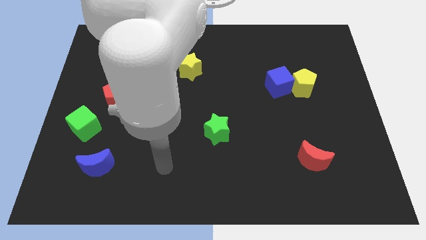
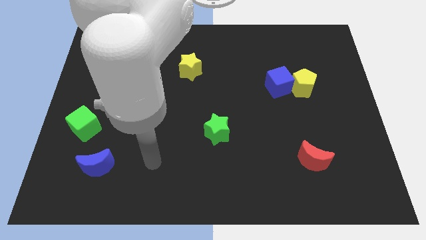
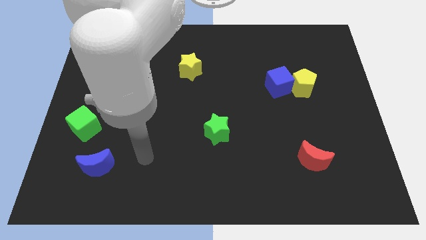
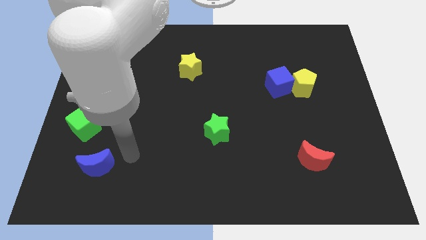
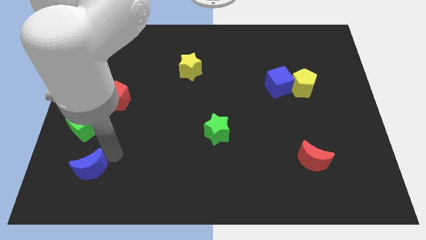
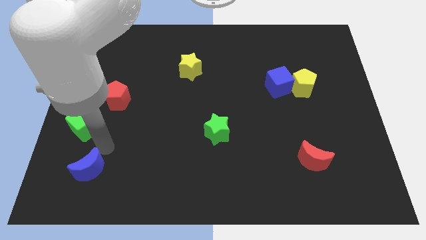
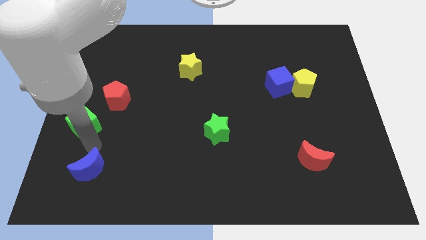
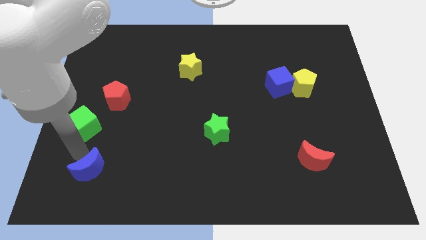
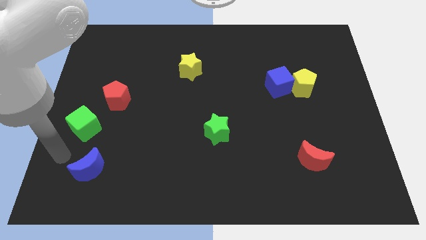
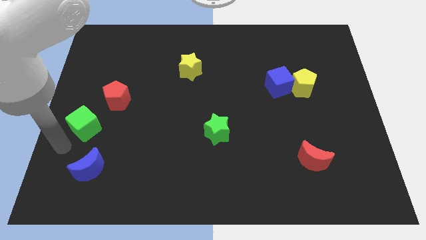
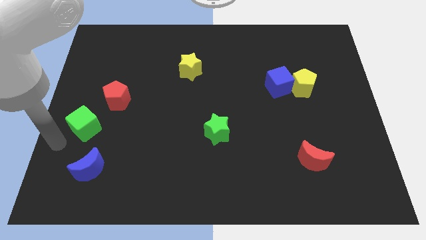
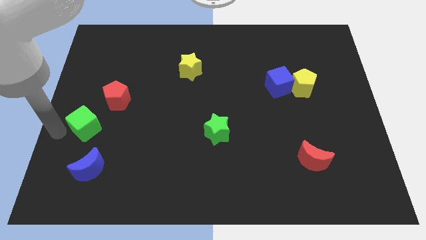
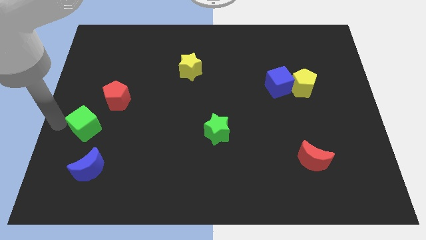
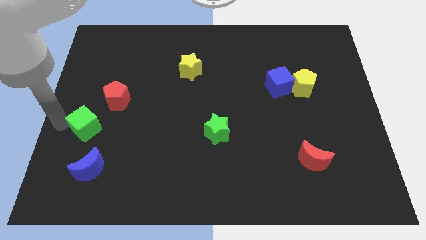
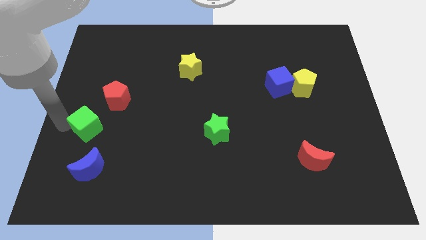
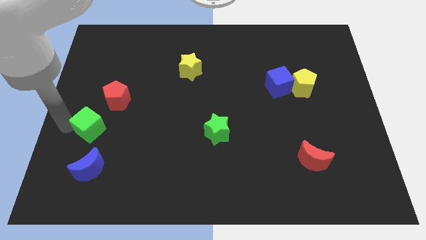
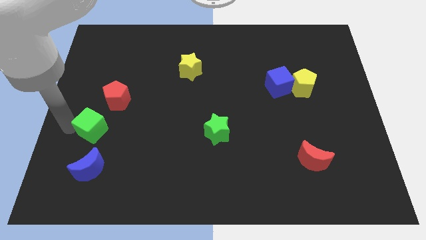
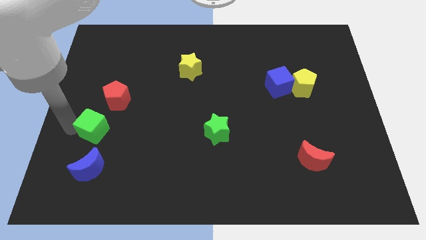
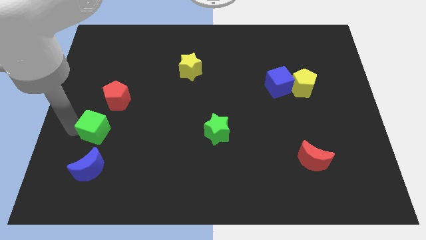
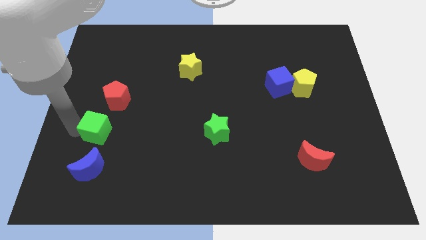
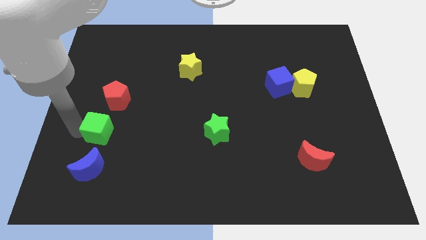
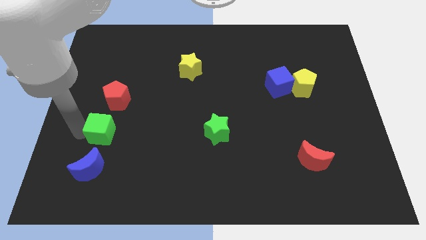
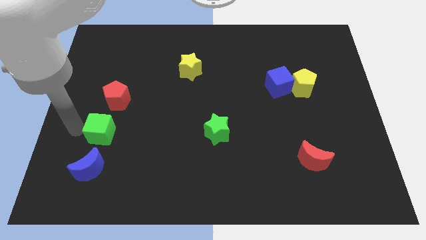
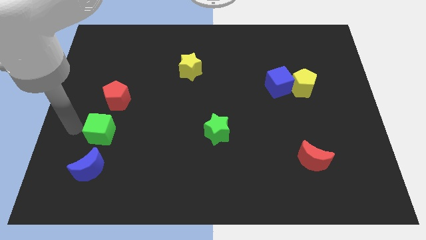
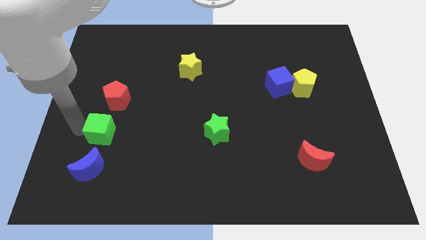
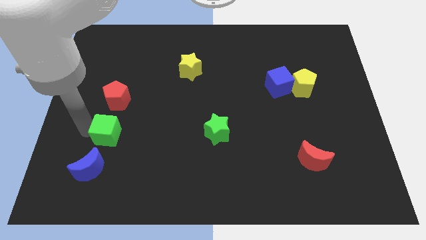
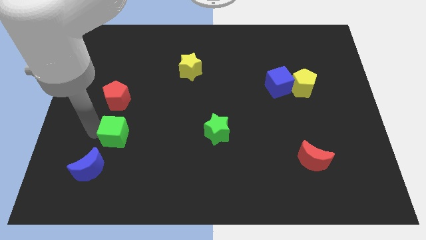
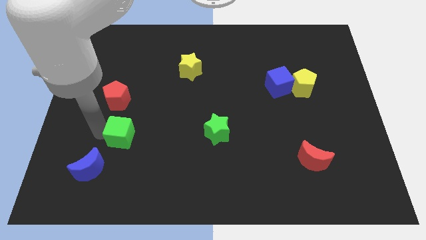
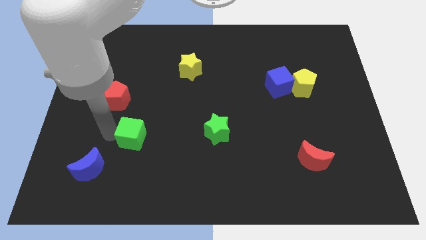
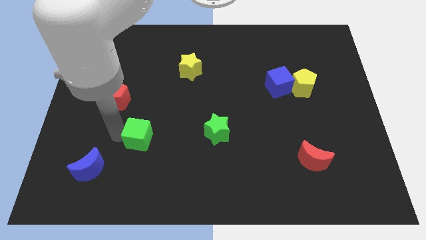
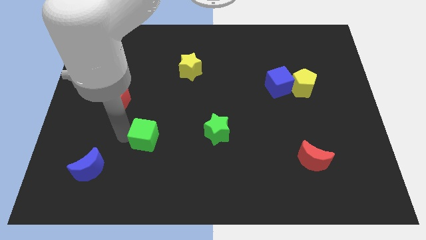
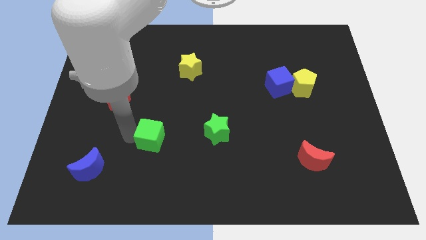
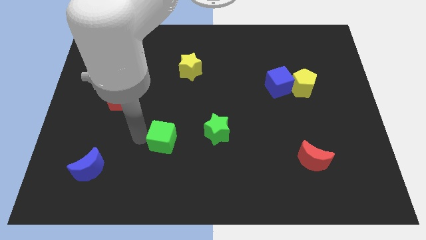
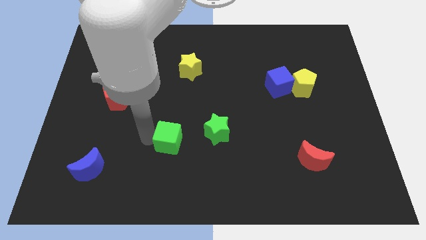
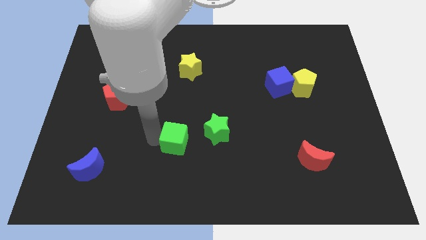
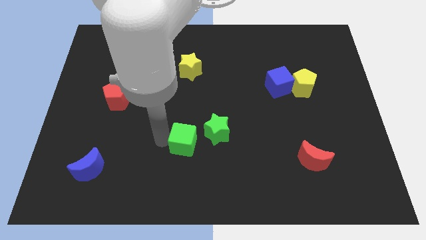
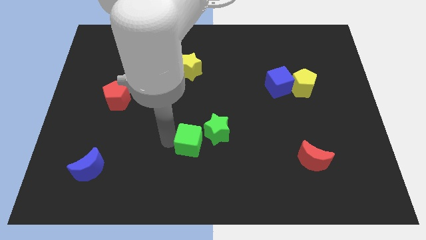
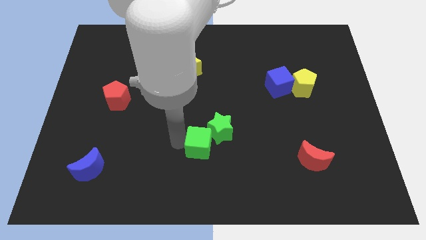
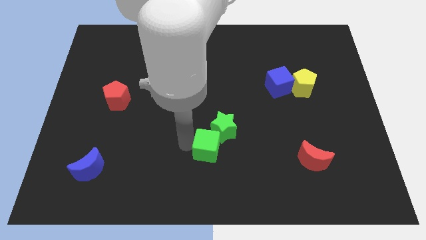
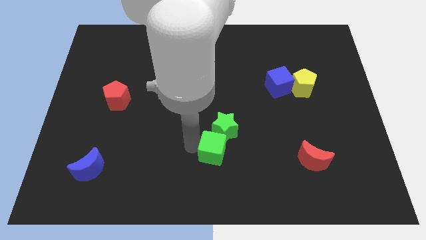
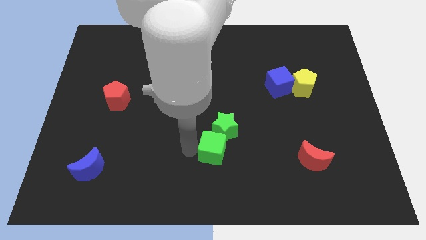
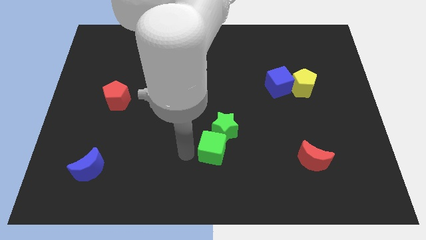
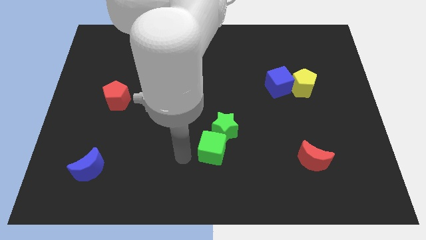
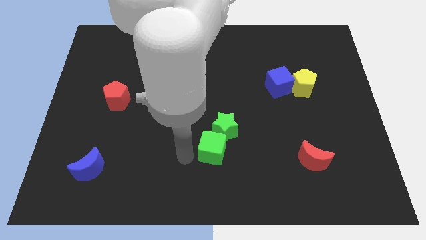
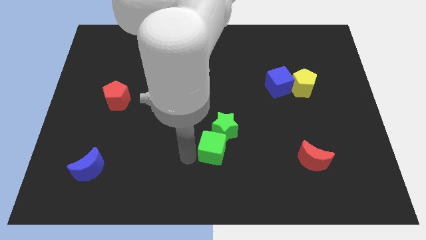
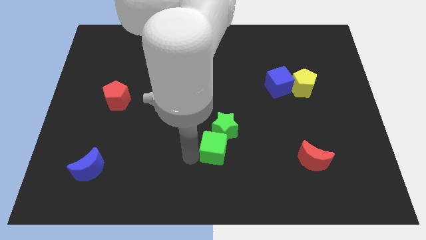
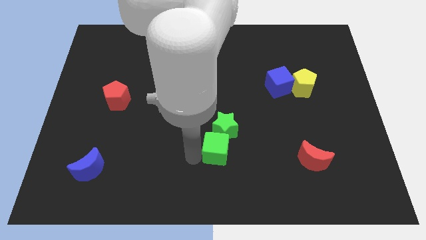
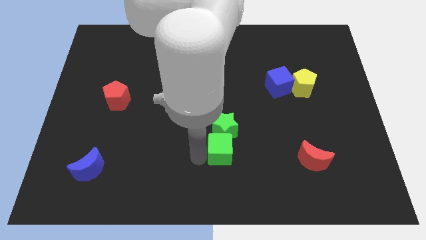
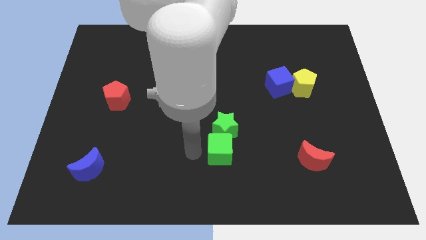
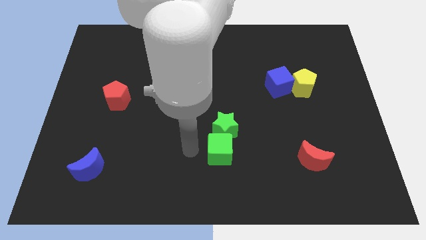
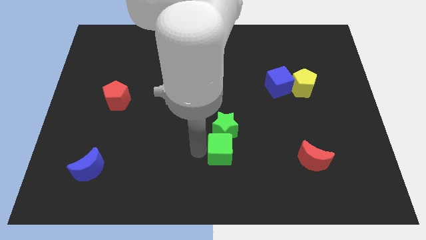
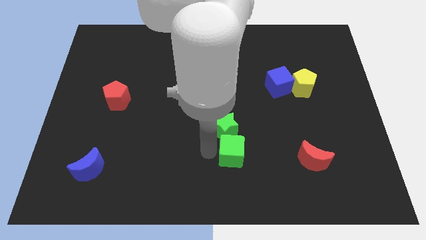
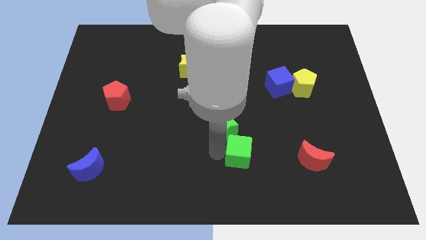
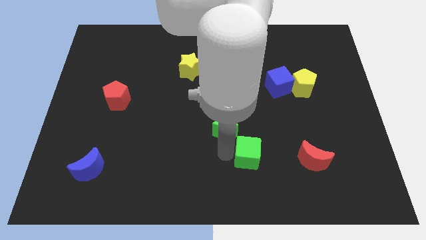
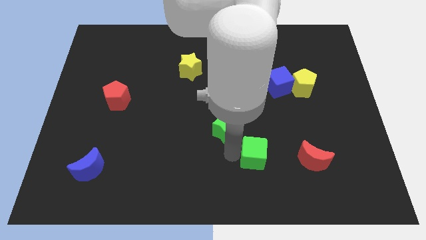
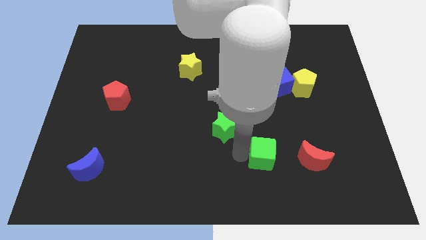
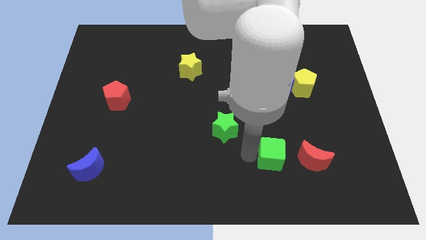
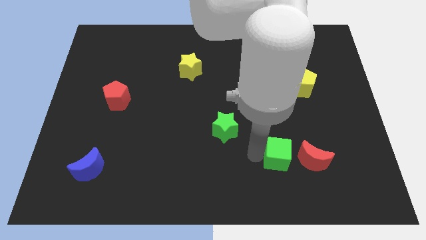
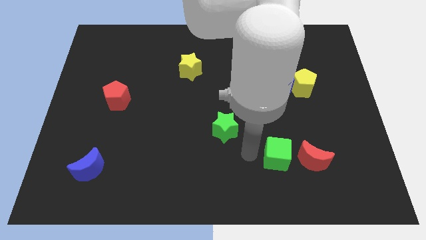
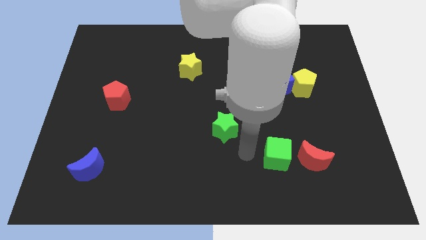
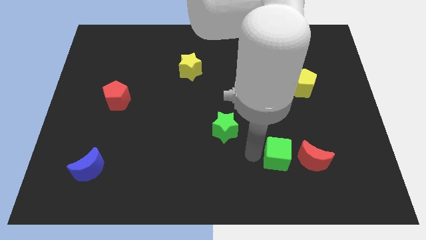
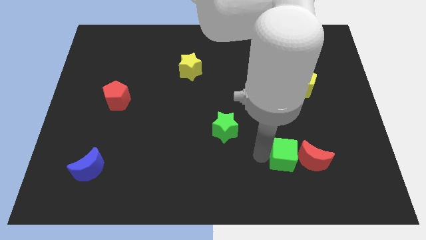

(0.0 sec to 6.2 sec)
push the green cube towards the red moon

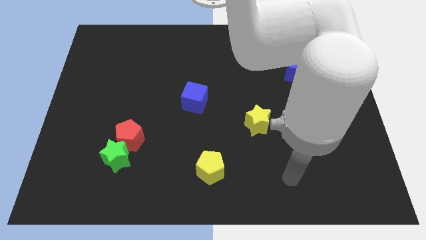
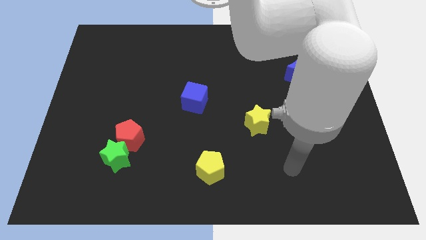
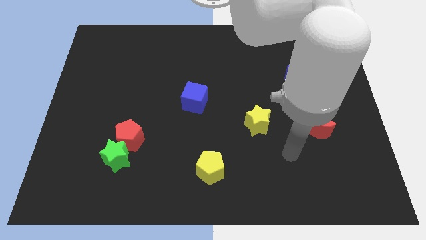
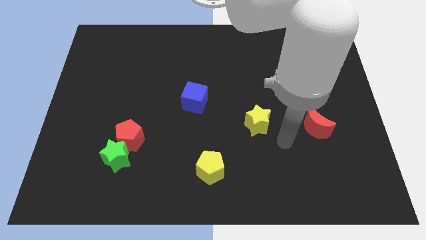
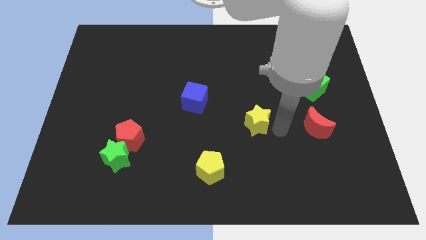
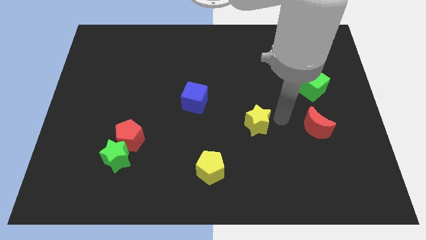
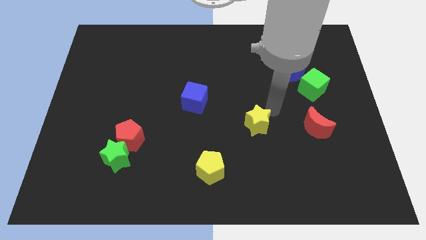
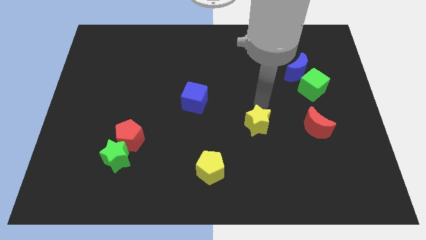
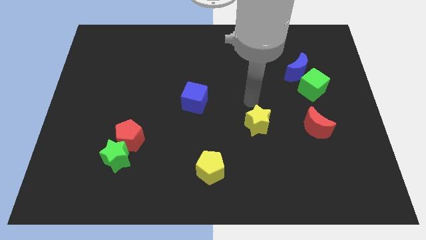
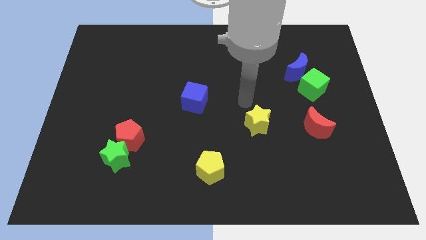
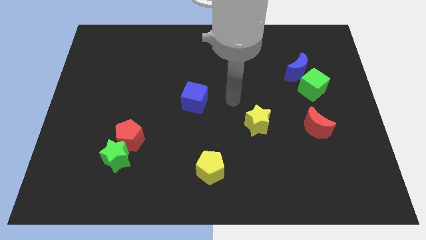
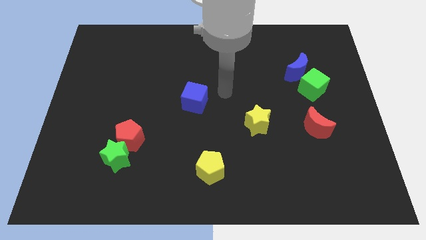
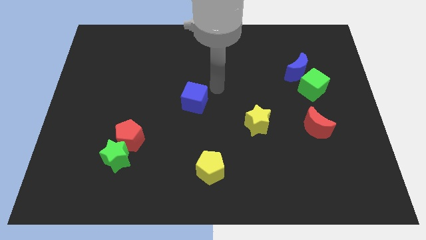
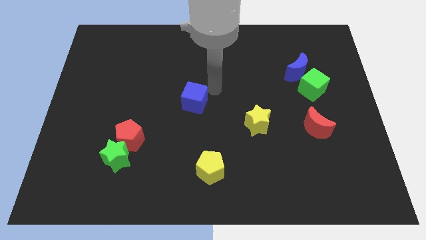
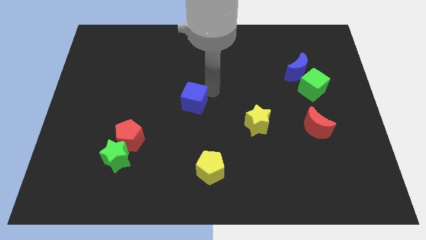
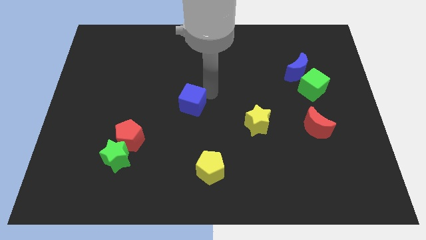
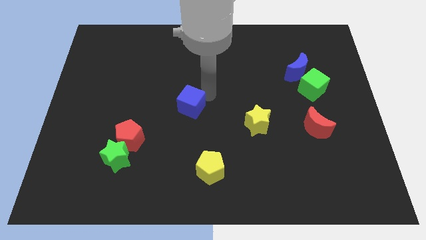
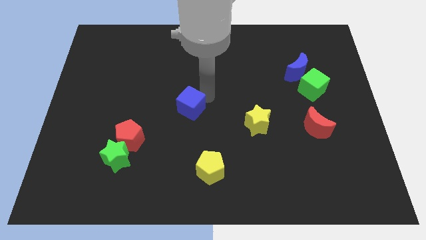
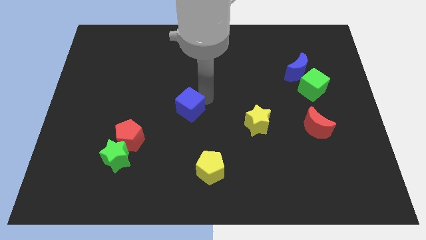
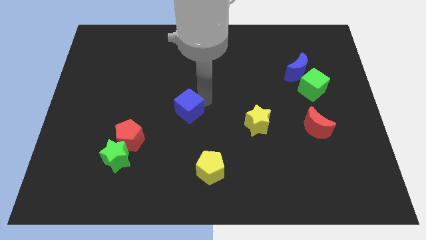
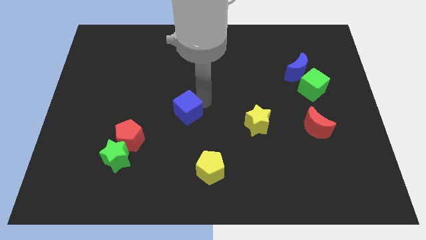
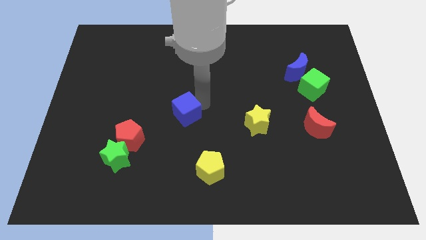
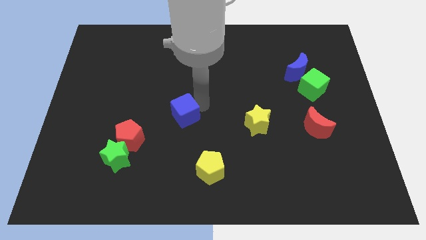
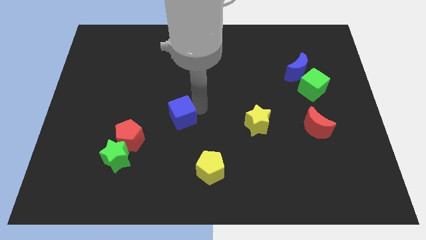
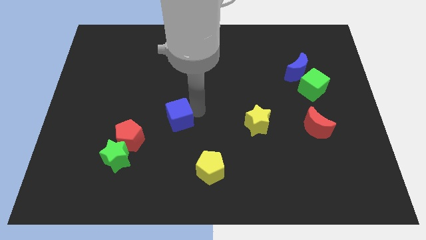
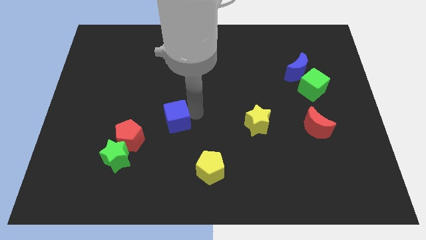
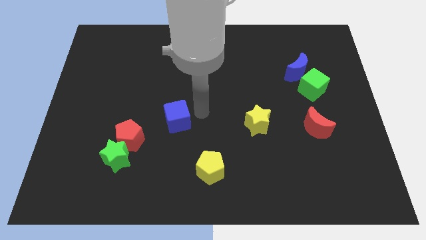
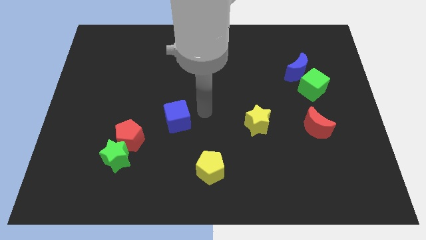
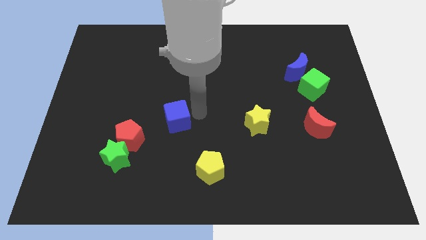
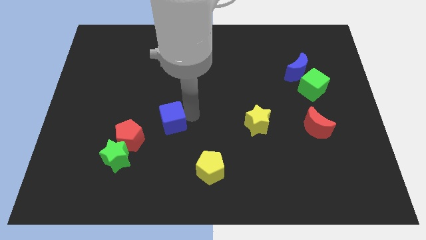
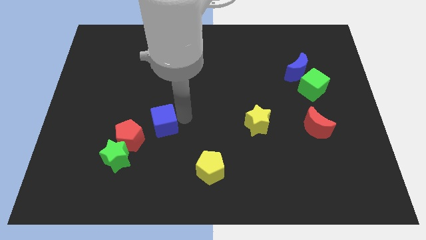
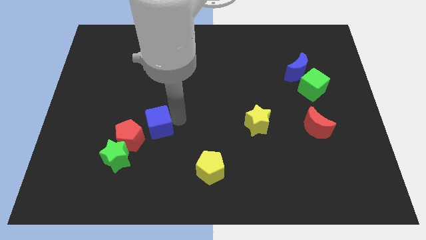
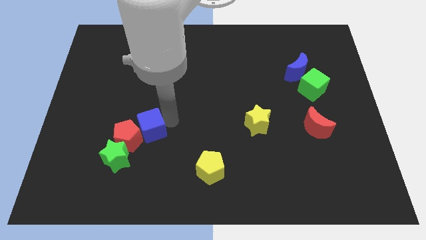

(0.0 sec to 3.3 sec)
push the blue cube towards the red pentagon
